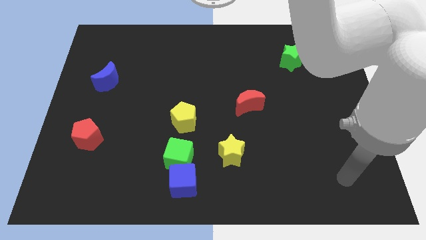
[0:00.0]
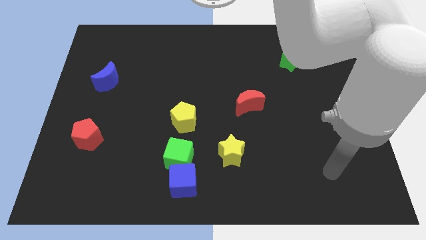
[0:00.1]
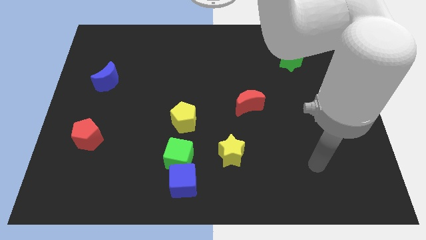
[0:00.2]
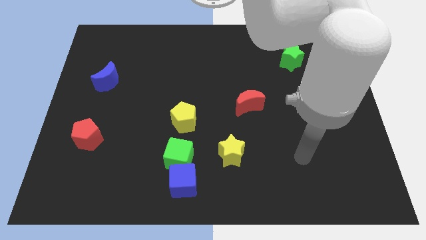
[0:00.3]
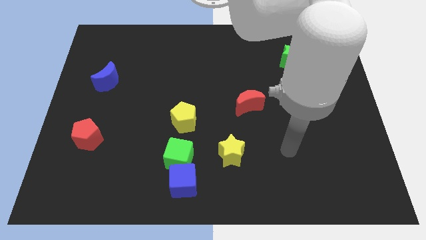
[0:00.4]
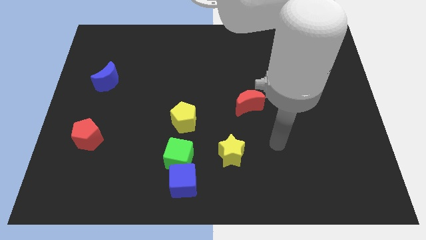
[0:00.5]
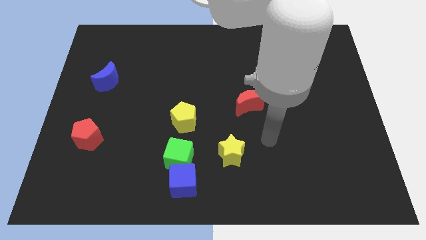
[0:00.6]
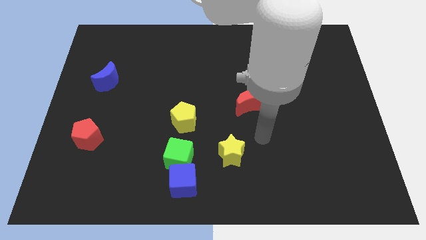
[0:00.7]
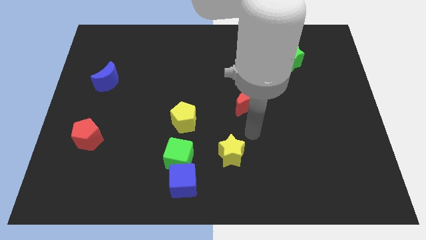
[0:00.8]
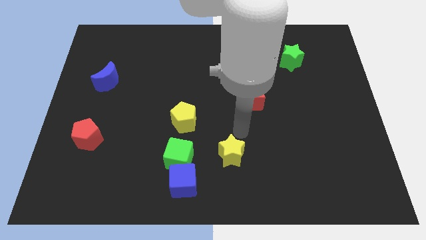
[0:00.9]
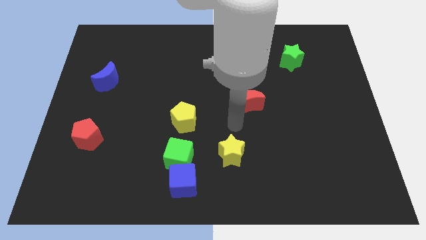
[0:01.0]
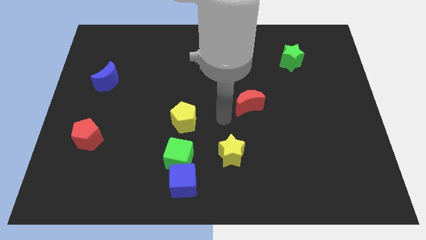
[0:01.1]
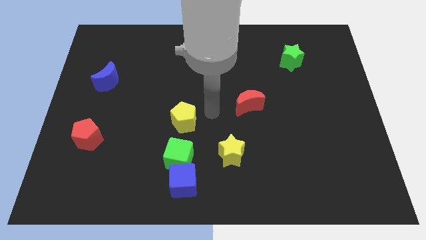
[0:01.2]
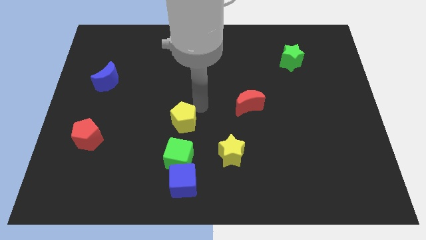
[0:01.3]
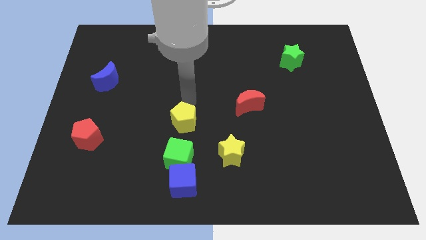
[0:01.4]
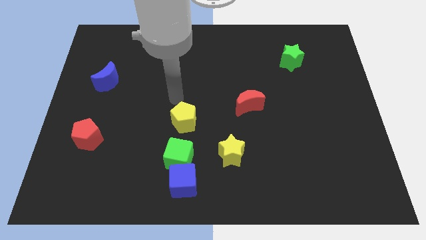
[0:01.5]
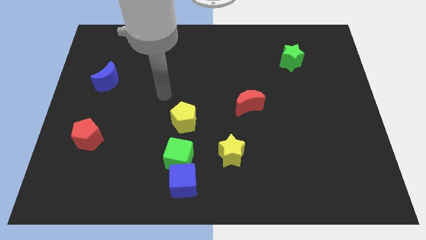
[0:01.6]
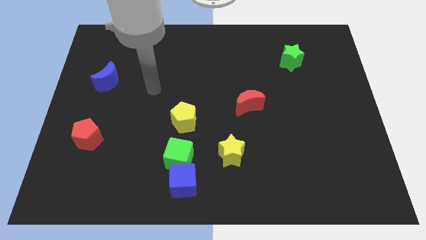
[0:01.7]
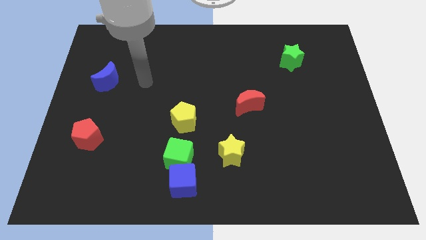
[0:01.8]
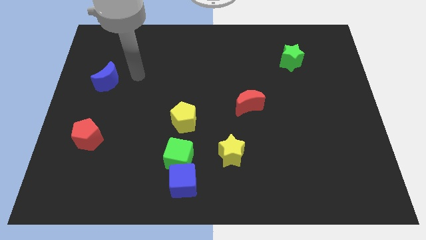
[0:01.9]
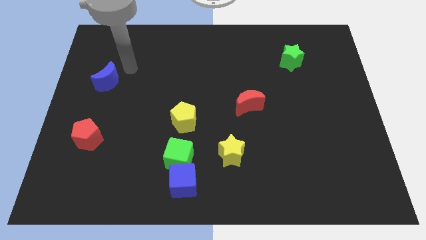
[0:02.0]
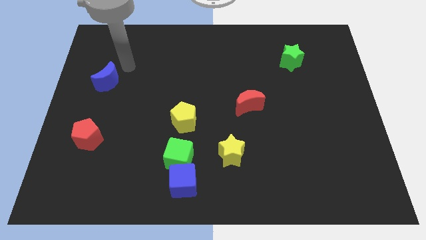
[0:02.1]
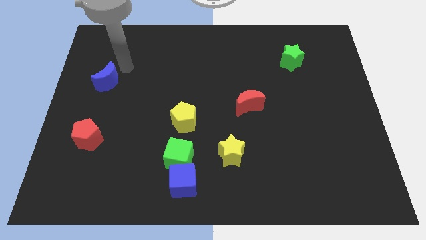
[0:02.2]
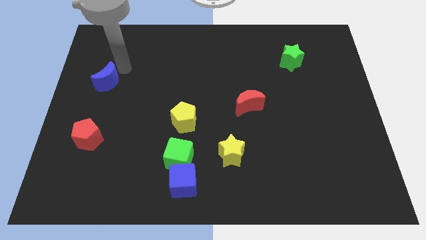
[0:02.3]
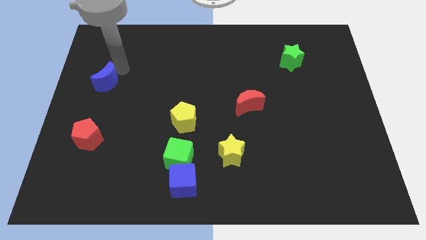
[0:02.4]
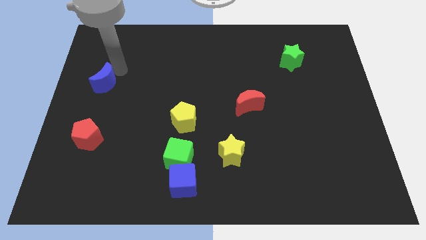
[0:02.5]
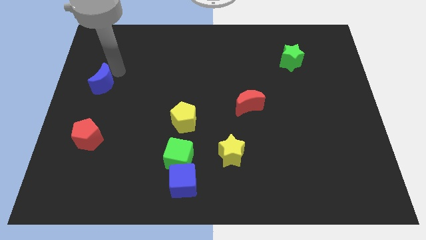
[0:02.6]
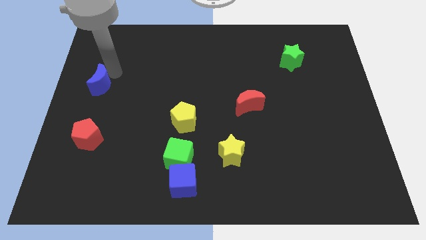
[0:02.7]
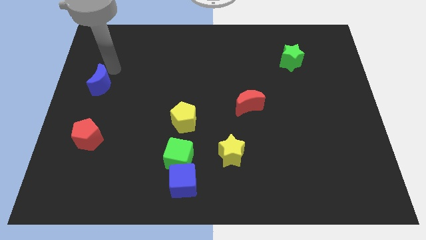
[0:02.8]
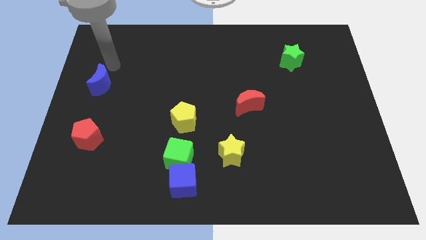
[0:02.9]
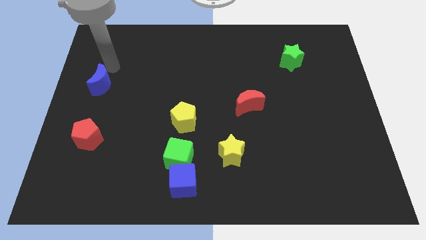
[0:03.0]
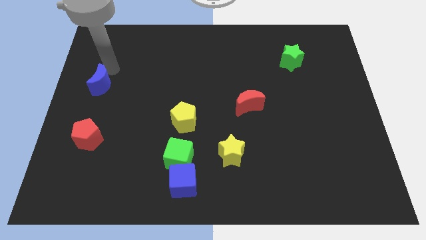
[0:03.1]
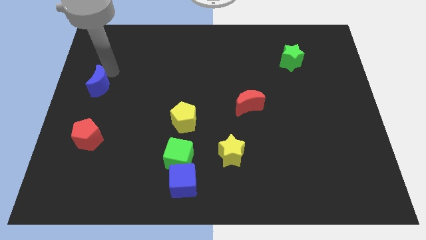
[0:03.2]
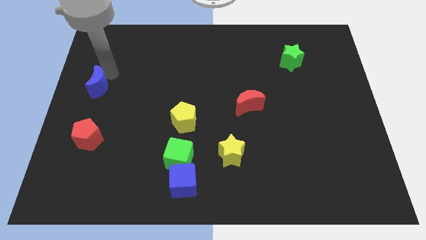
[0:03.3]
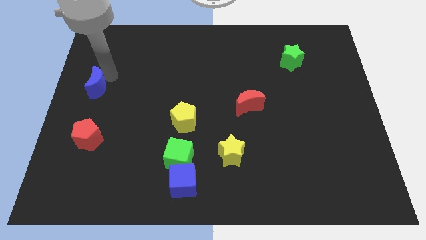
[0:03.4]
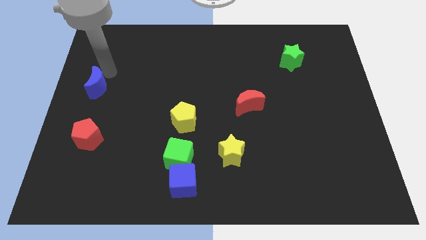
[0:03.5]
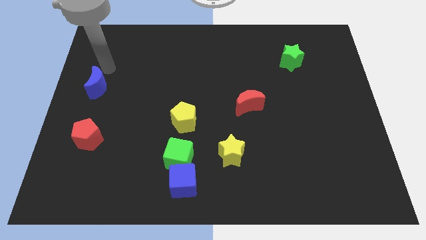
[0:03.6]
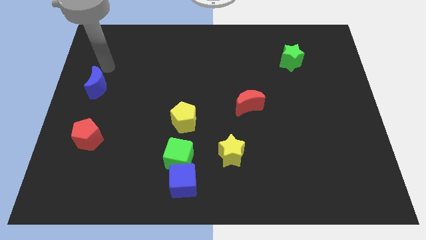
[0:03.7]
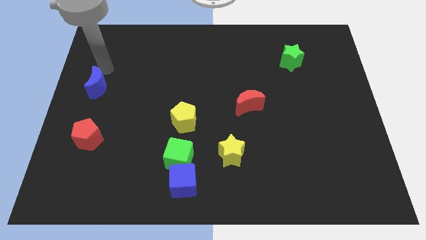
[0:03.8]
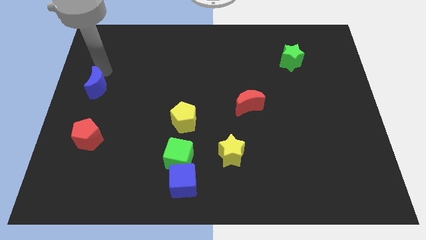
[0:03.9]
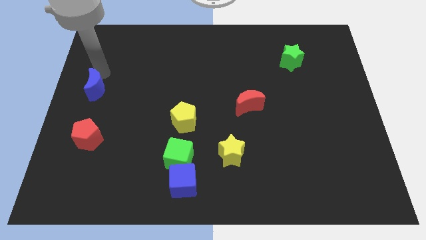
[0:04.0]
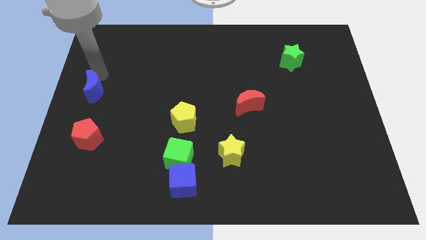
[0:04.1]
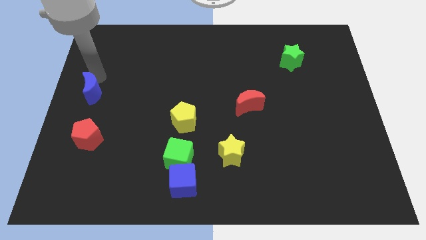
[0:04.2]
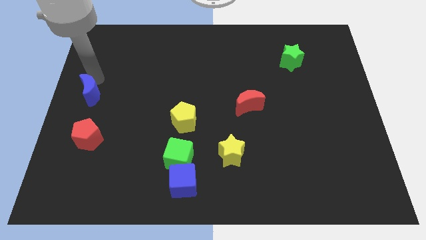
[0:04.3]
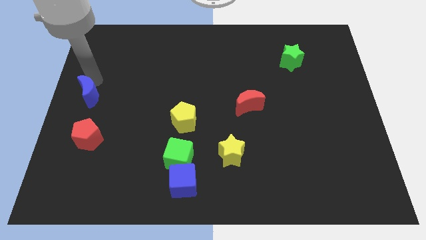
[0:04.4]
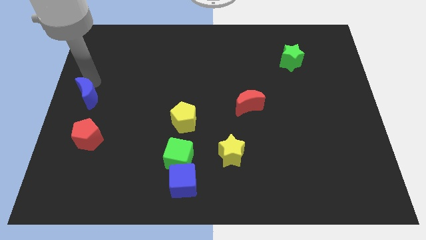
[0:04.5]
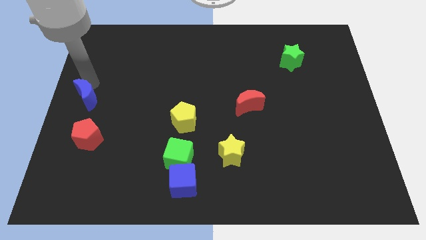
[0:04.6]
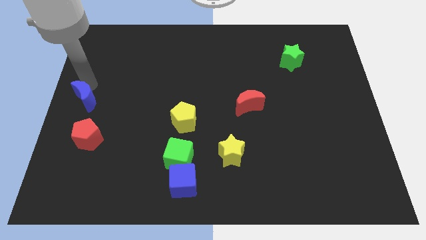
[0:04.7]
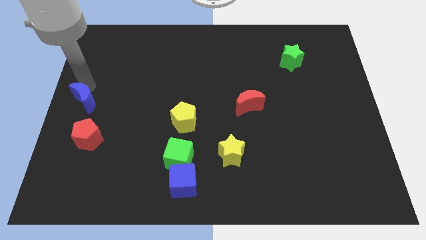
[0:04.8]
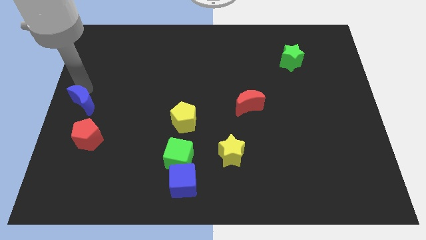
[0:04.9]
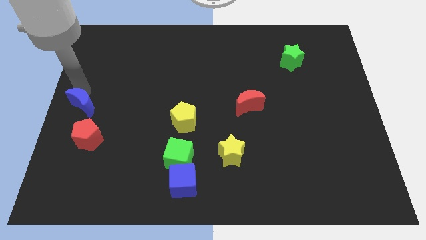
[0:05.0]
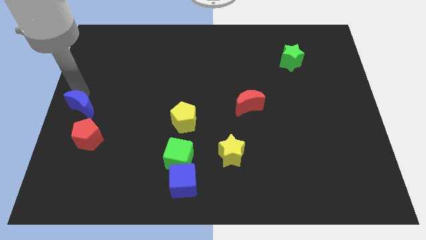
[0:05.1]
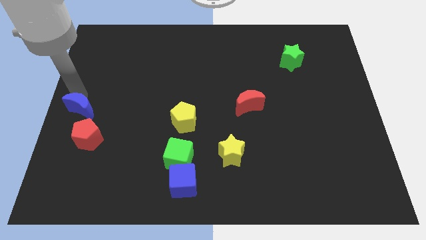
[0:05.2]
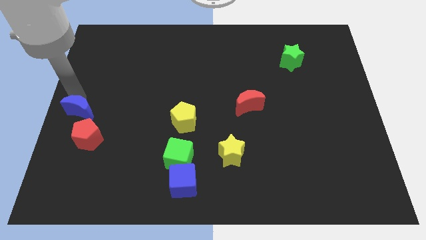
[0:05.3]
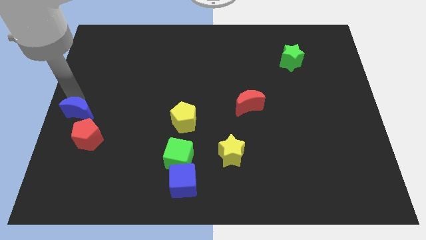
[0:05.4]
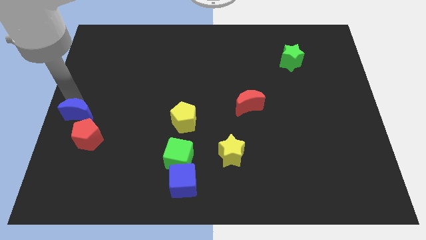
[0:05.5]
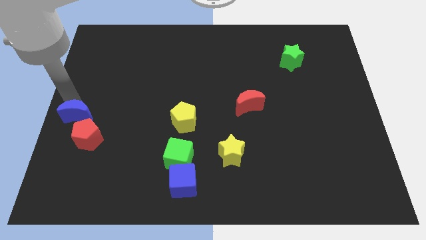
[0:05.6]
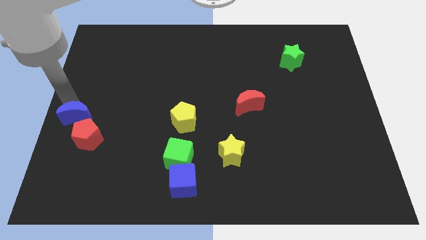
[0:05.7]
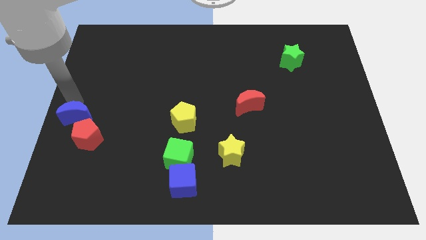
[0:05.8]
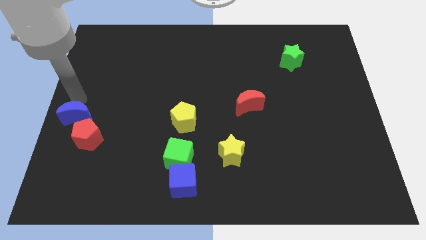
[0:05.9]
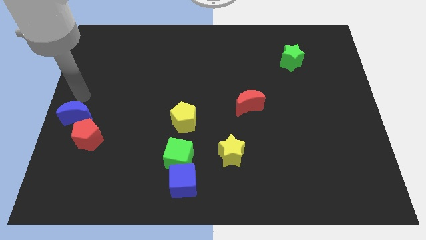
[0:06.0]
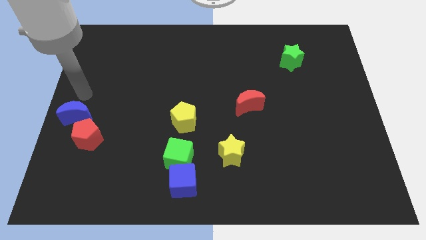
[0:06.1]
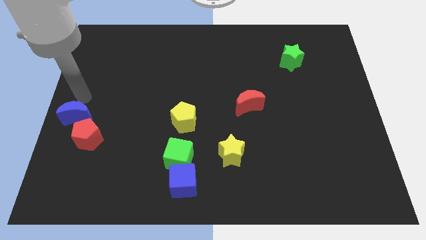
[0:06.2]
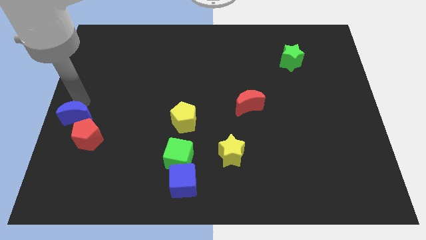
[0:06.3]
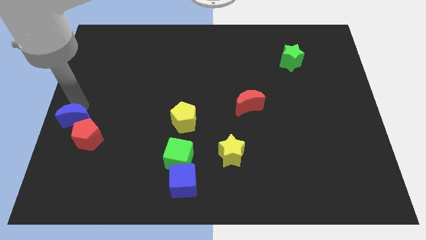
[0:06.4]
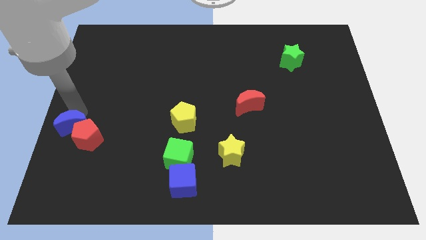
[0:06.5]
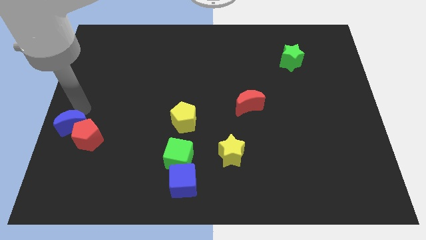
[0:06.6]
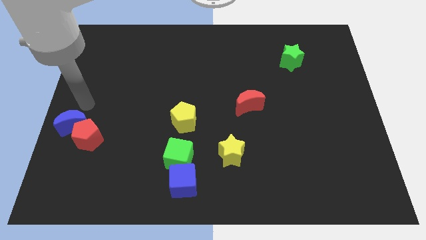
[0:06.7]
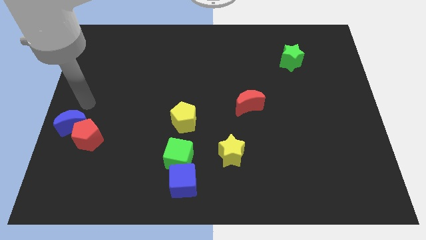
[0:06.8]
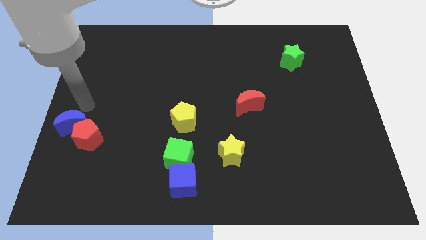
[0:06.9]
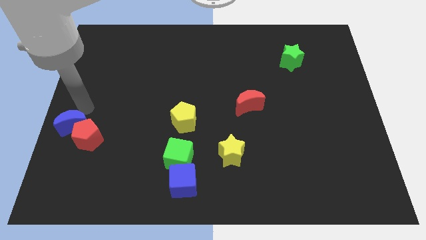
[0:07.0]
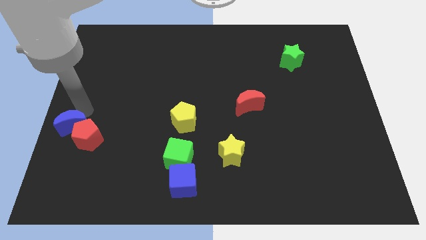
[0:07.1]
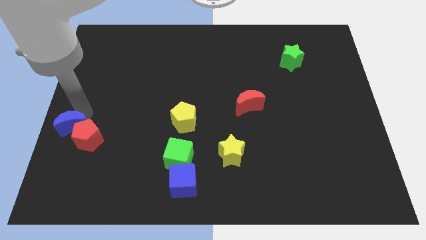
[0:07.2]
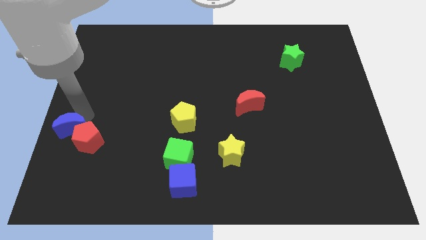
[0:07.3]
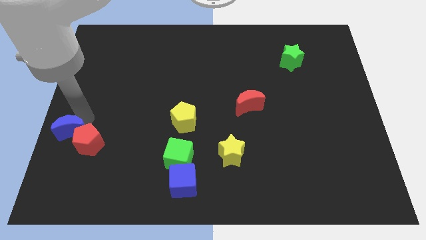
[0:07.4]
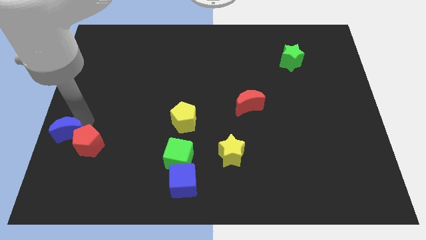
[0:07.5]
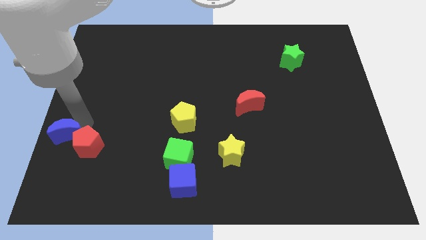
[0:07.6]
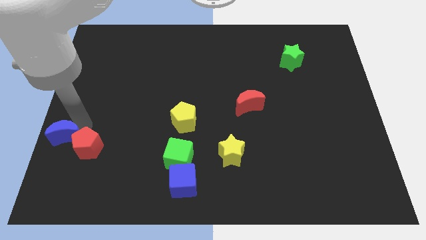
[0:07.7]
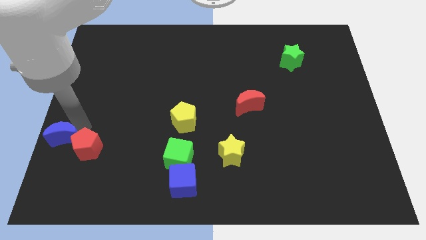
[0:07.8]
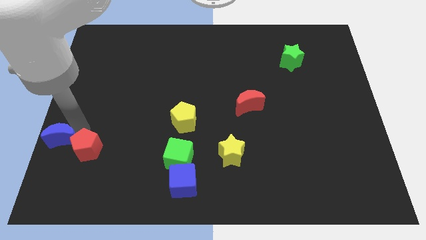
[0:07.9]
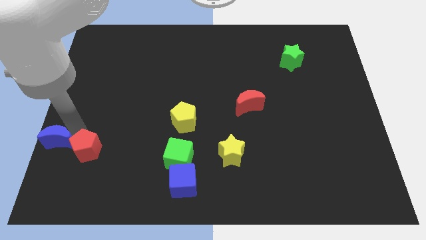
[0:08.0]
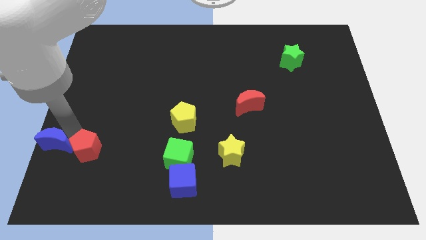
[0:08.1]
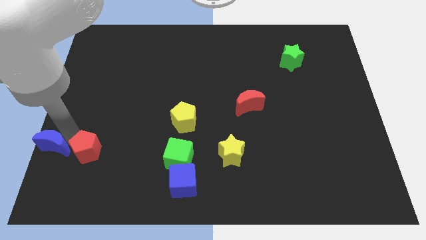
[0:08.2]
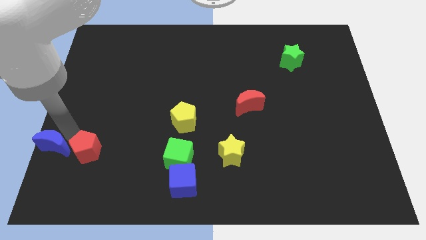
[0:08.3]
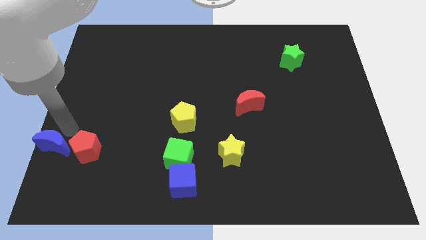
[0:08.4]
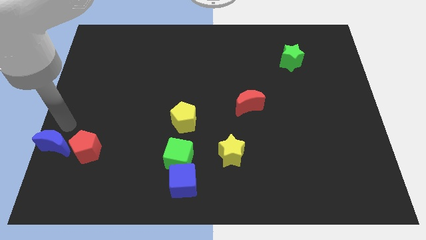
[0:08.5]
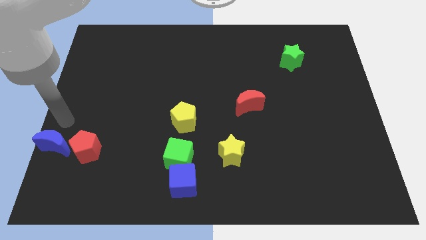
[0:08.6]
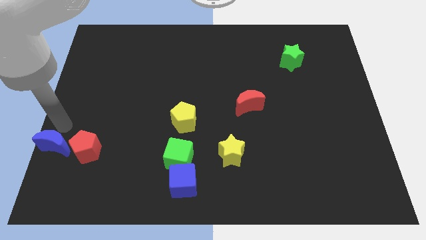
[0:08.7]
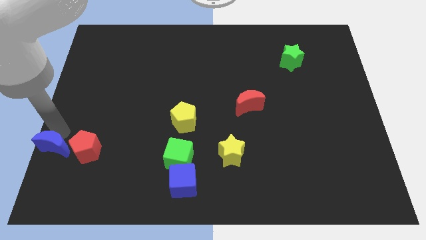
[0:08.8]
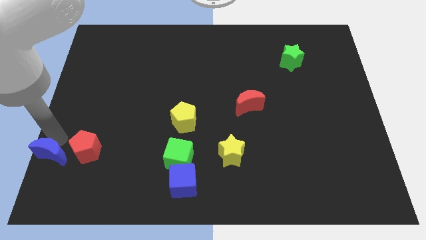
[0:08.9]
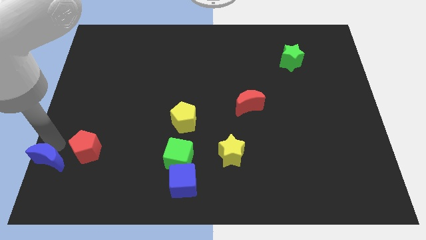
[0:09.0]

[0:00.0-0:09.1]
move the blue moon to the bottom left corner
